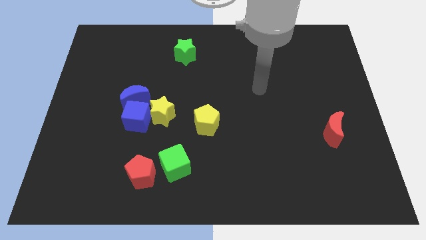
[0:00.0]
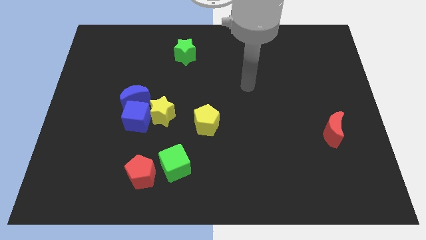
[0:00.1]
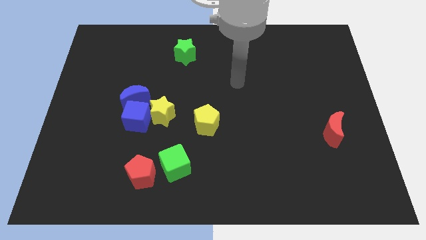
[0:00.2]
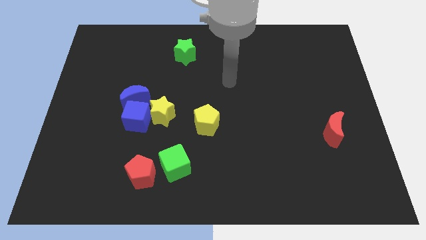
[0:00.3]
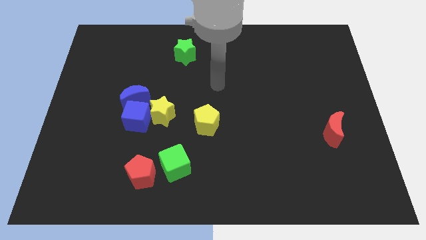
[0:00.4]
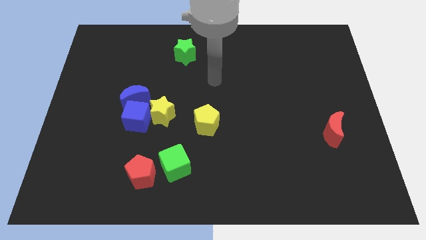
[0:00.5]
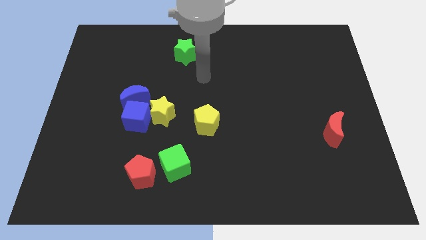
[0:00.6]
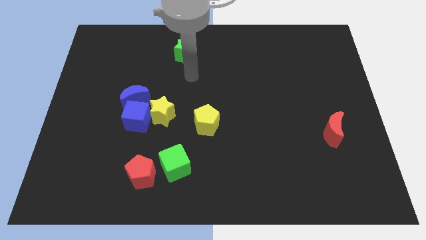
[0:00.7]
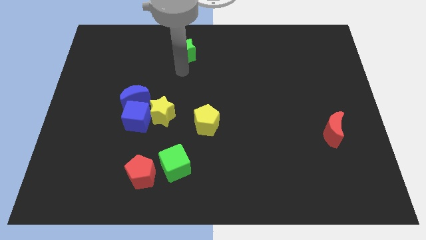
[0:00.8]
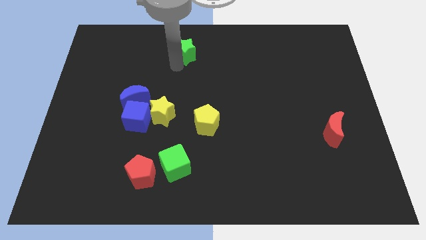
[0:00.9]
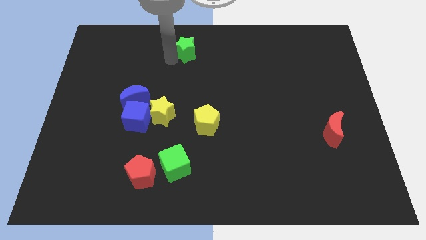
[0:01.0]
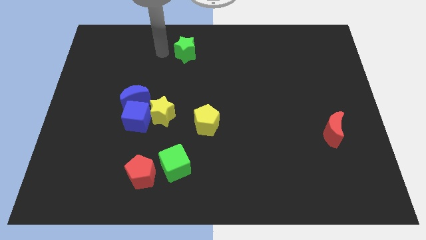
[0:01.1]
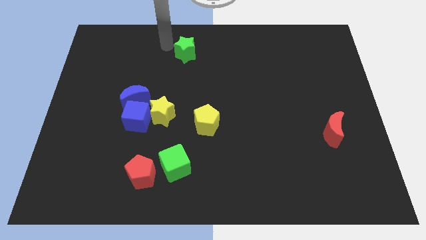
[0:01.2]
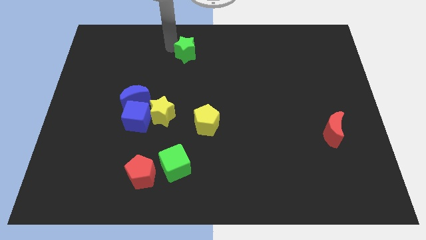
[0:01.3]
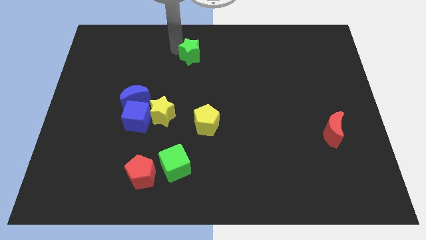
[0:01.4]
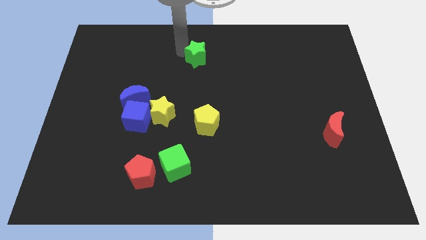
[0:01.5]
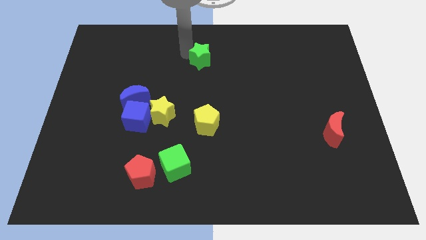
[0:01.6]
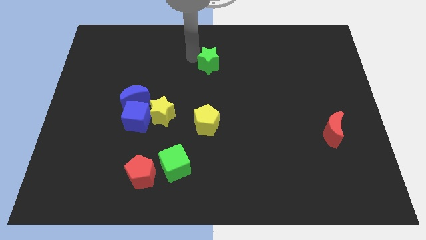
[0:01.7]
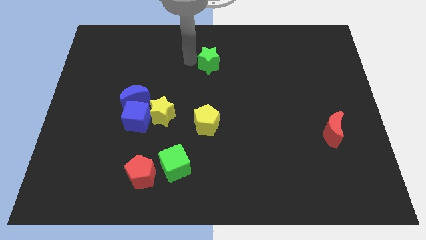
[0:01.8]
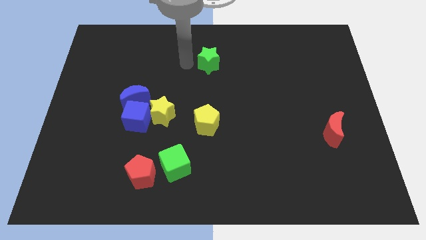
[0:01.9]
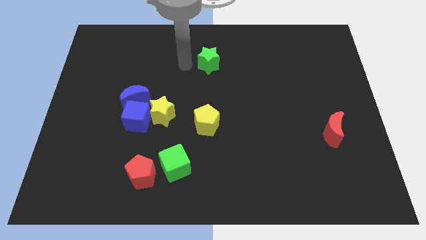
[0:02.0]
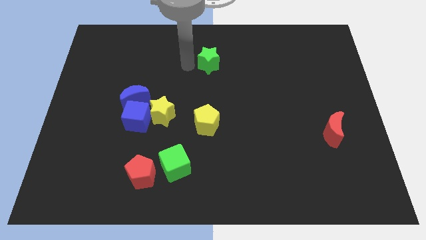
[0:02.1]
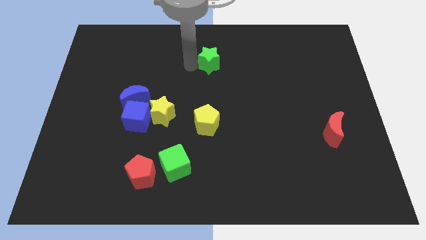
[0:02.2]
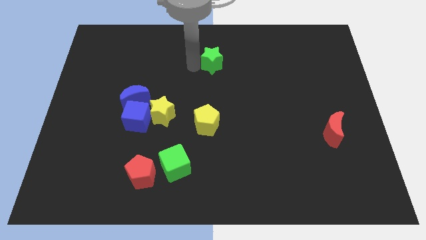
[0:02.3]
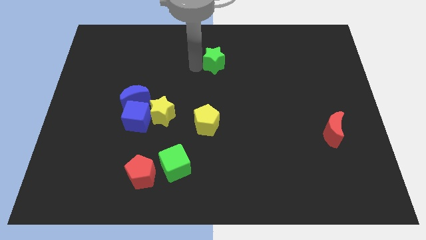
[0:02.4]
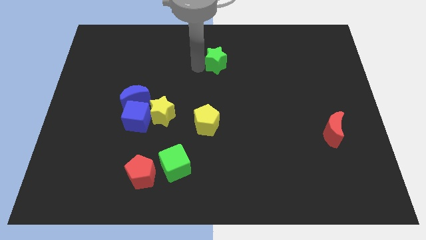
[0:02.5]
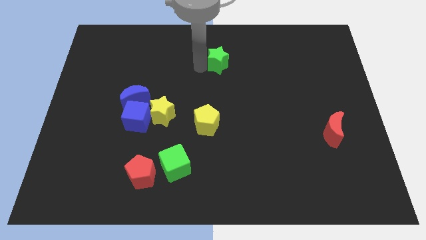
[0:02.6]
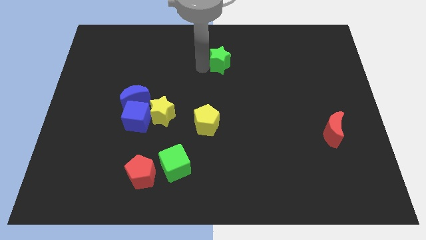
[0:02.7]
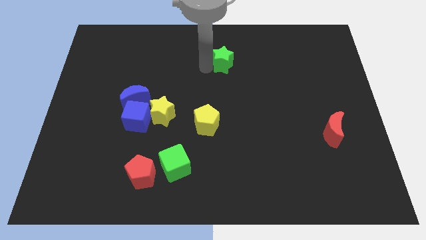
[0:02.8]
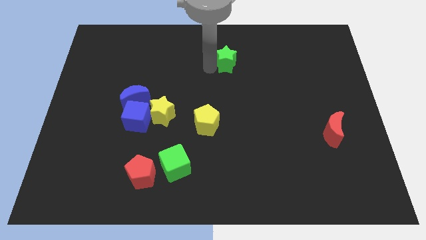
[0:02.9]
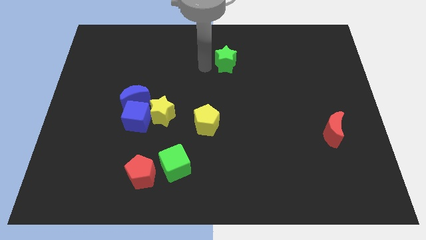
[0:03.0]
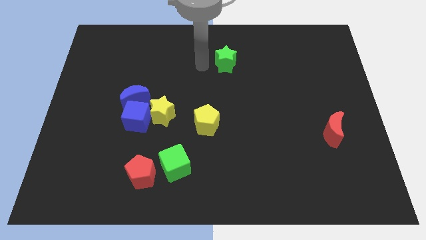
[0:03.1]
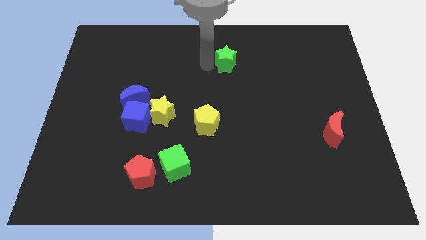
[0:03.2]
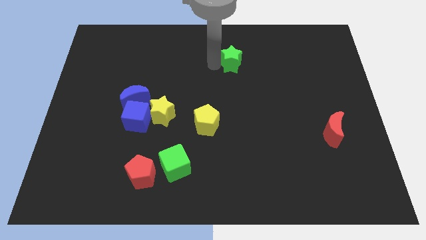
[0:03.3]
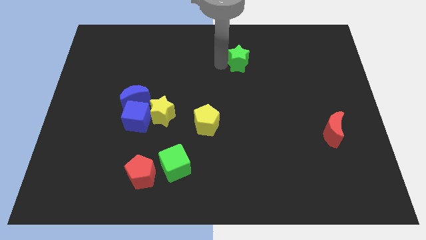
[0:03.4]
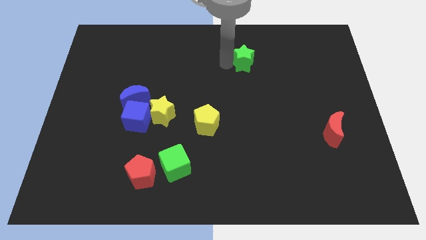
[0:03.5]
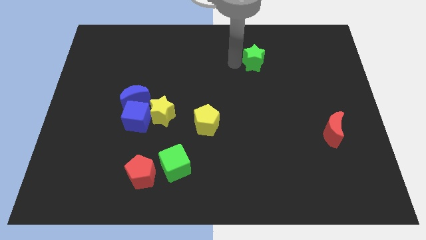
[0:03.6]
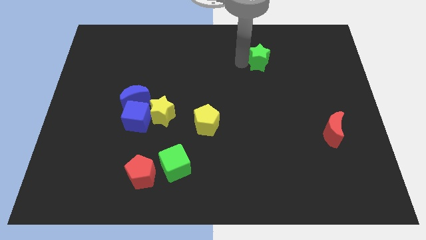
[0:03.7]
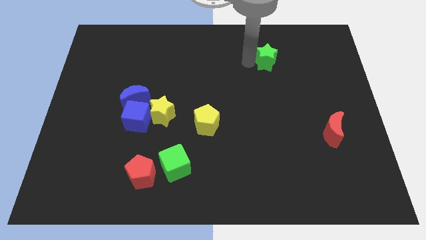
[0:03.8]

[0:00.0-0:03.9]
push the green star to the right

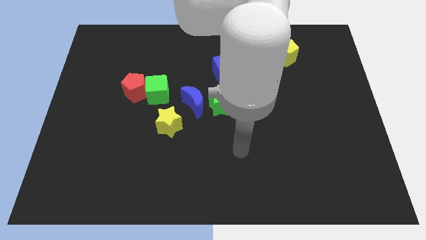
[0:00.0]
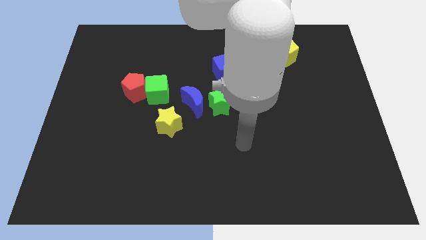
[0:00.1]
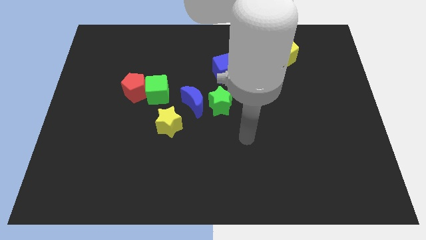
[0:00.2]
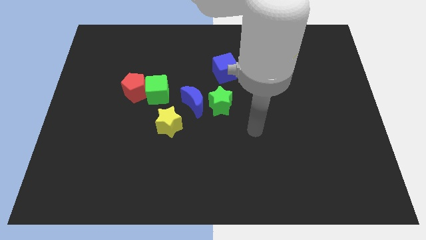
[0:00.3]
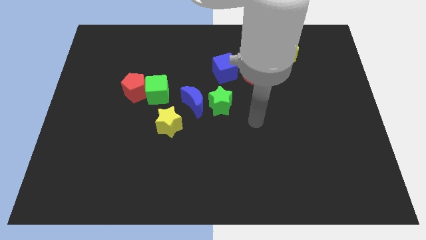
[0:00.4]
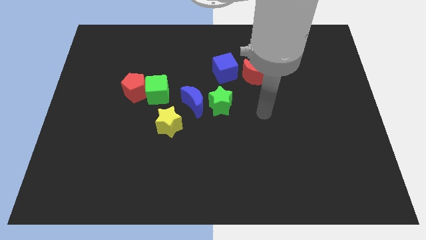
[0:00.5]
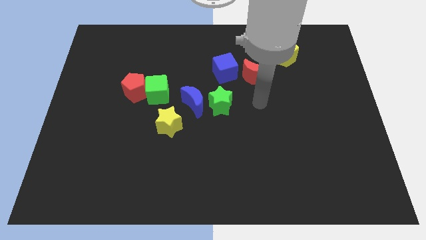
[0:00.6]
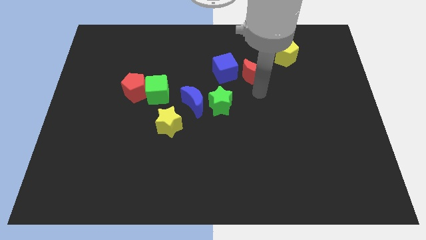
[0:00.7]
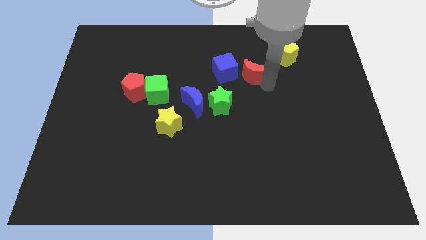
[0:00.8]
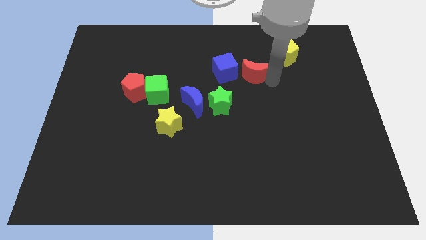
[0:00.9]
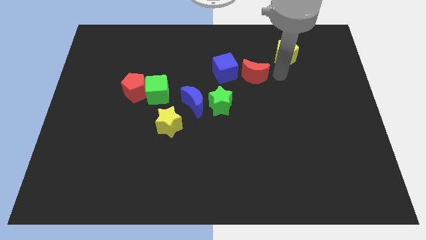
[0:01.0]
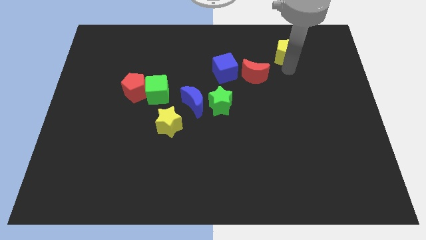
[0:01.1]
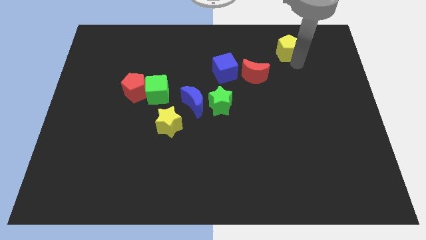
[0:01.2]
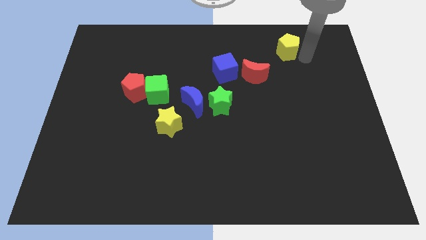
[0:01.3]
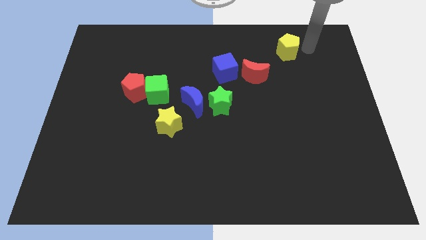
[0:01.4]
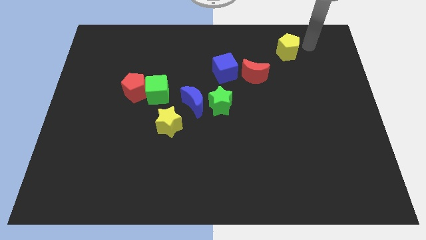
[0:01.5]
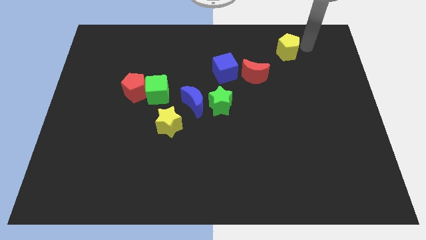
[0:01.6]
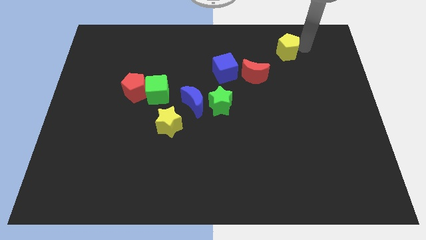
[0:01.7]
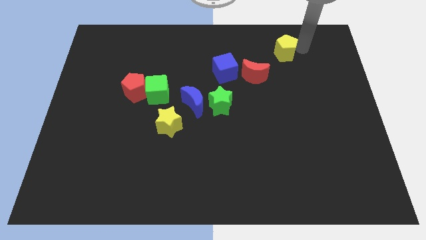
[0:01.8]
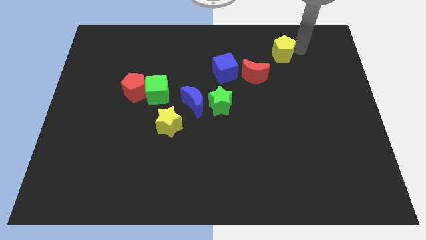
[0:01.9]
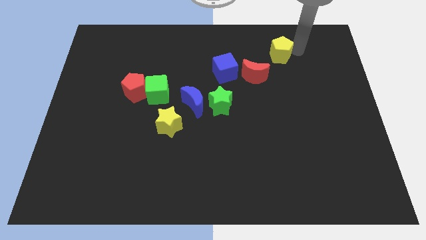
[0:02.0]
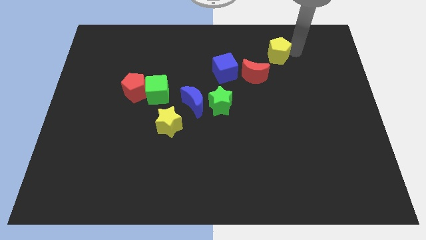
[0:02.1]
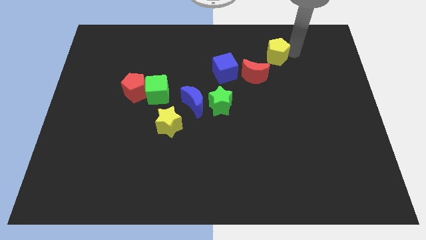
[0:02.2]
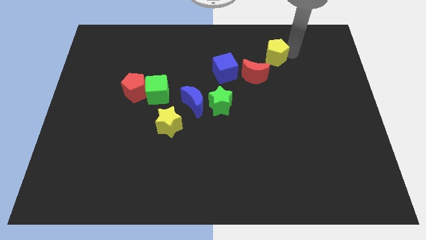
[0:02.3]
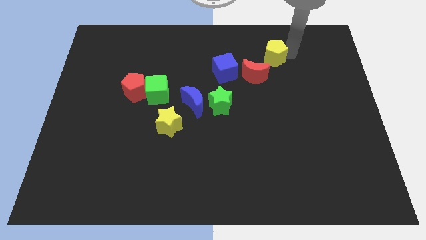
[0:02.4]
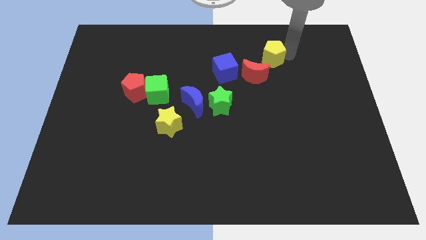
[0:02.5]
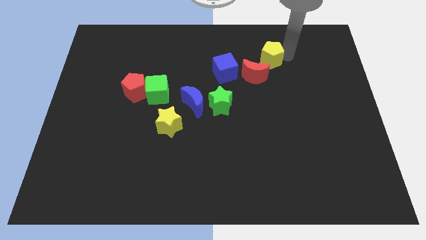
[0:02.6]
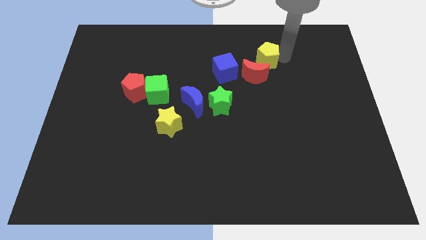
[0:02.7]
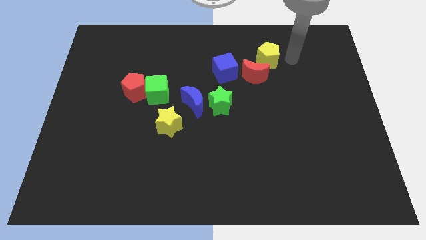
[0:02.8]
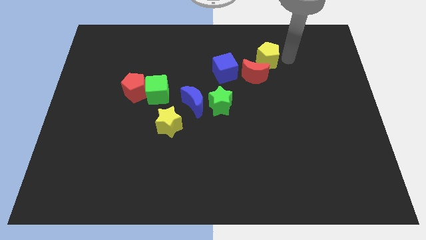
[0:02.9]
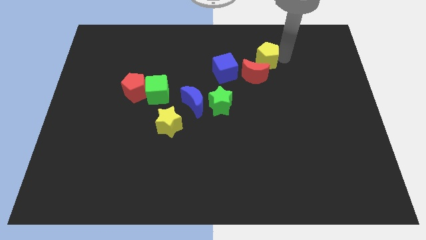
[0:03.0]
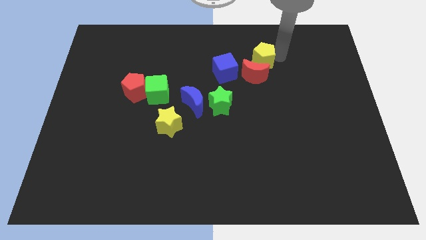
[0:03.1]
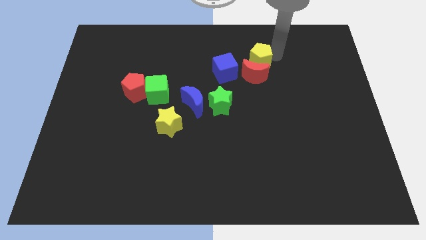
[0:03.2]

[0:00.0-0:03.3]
slightly move the yellow pentagon left

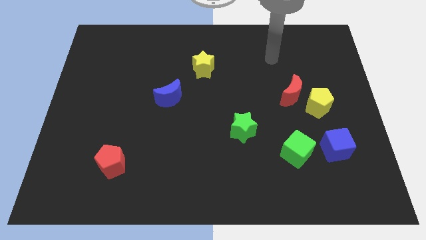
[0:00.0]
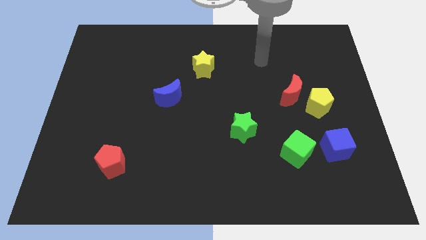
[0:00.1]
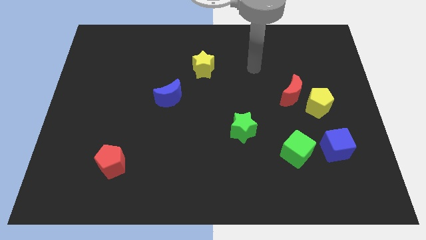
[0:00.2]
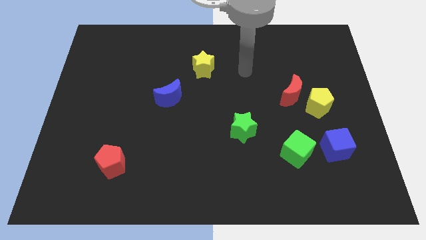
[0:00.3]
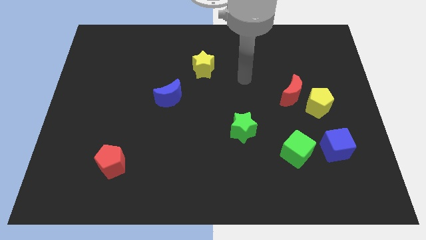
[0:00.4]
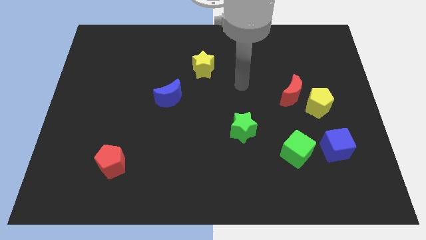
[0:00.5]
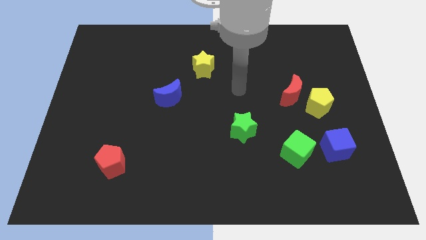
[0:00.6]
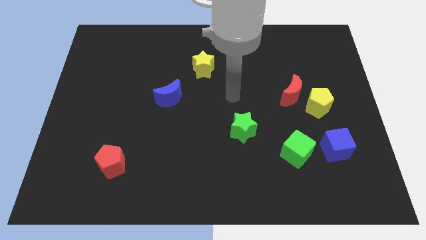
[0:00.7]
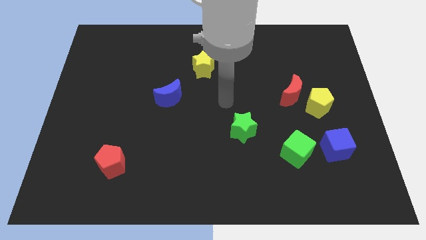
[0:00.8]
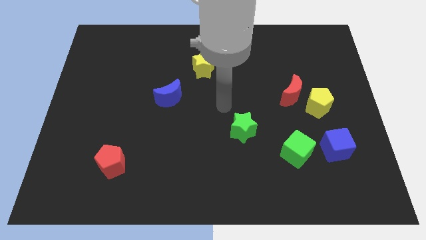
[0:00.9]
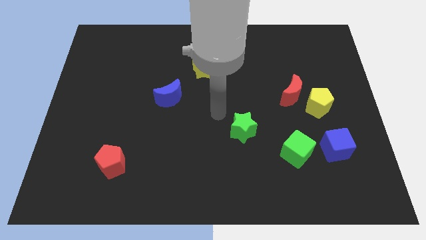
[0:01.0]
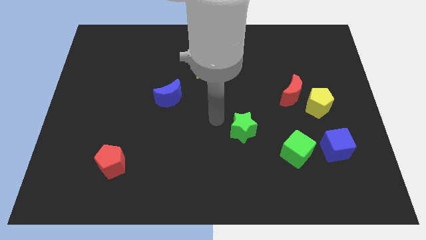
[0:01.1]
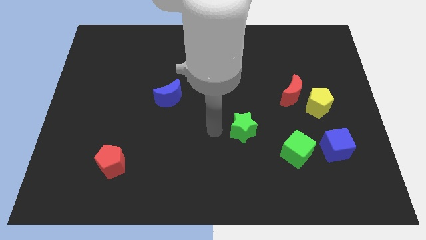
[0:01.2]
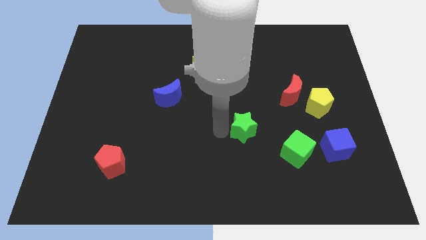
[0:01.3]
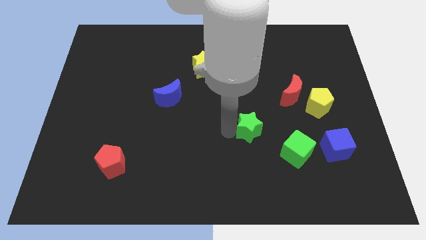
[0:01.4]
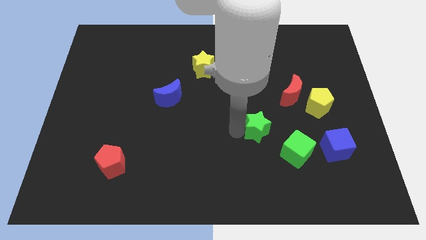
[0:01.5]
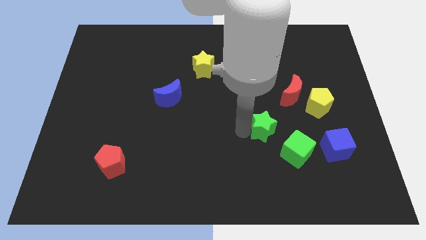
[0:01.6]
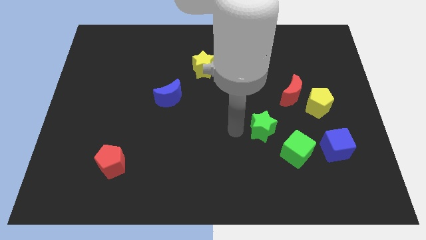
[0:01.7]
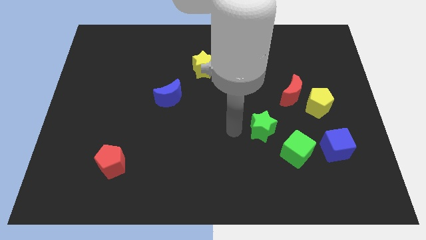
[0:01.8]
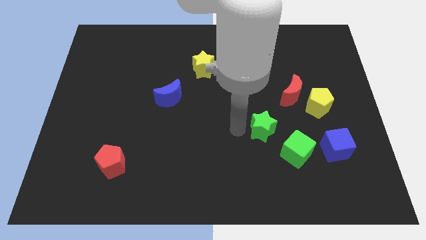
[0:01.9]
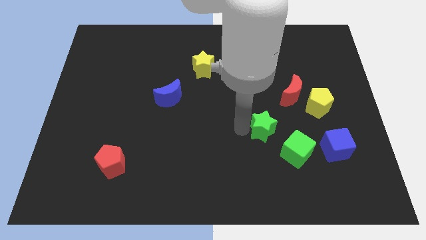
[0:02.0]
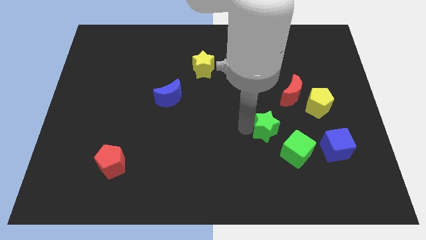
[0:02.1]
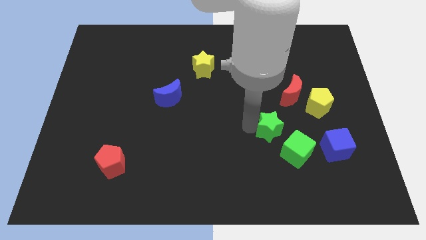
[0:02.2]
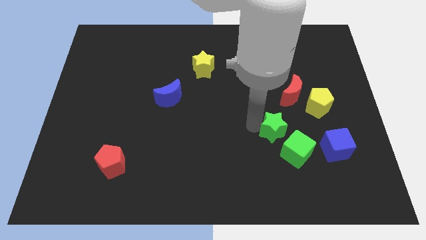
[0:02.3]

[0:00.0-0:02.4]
slightly move the green star right
